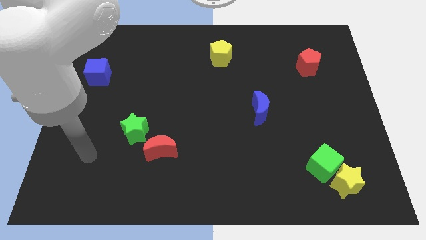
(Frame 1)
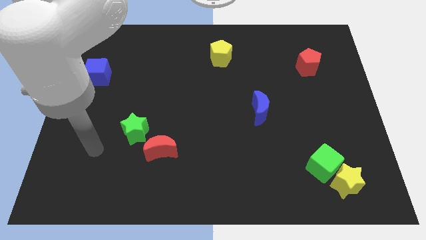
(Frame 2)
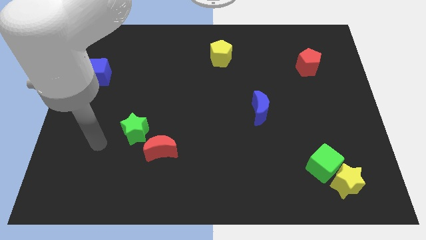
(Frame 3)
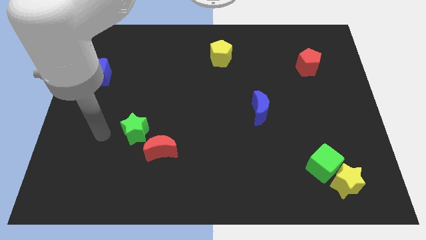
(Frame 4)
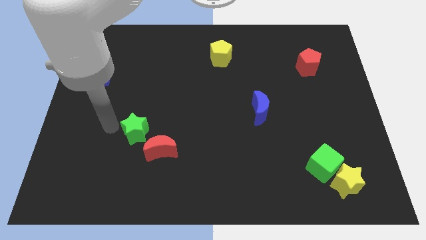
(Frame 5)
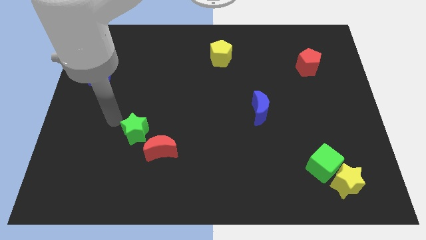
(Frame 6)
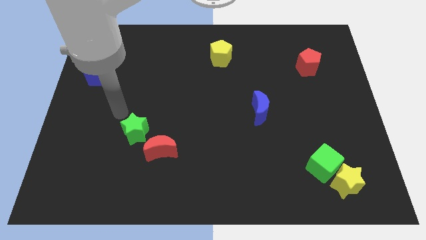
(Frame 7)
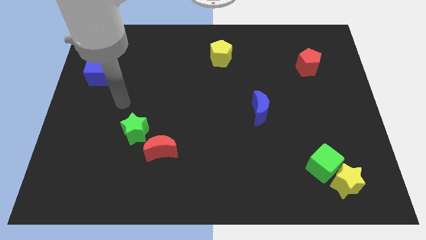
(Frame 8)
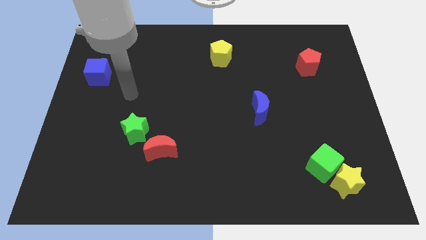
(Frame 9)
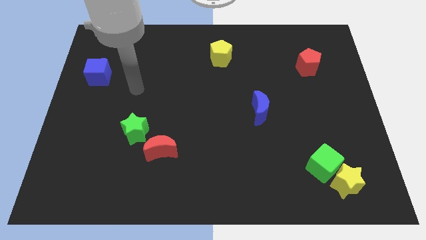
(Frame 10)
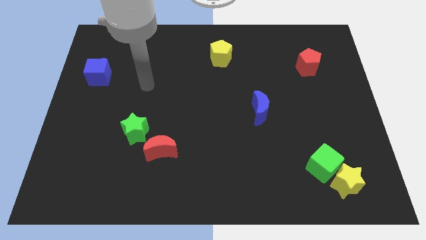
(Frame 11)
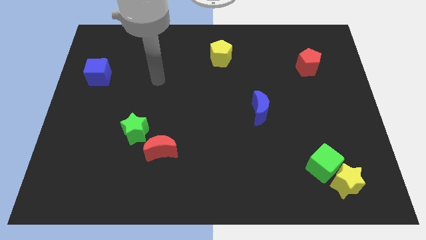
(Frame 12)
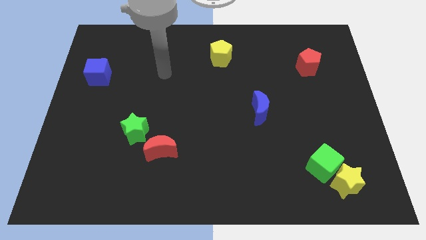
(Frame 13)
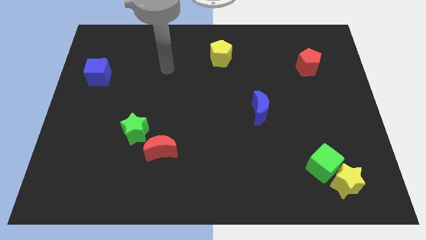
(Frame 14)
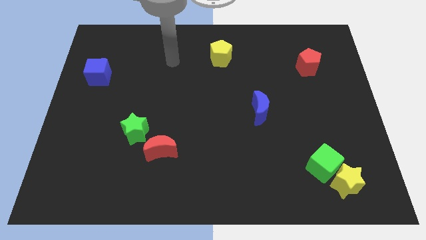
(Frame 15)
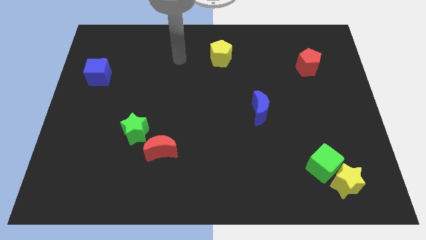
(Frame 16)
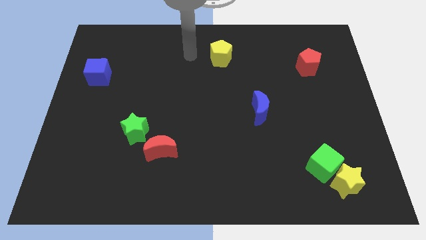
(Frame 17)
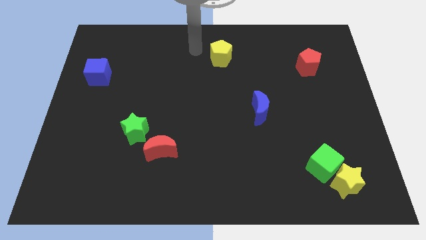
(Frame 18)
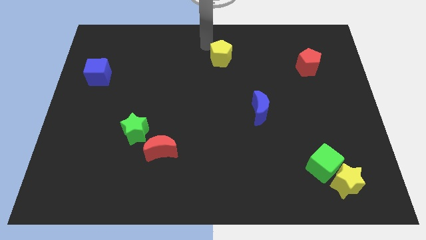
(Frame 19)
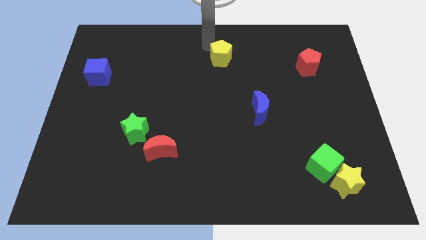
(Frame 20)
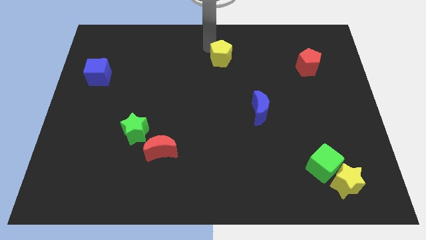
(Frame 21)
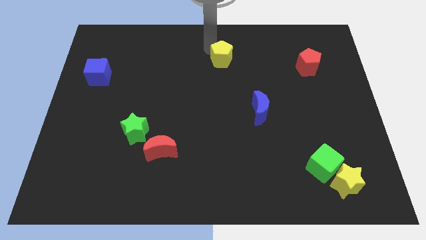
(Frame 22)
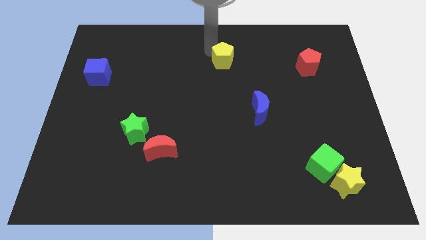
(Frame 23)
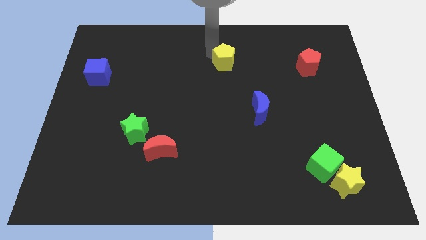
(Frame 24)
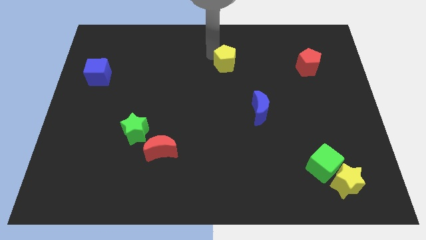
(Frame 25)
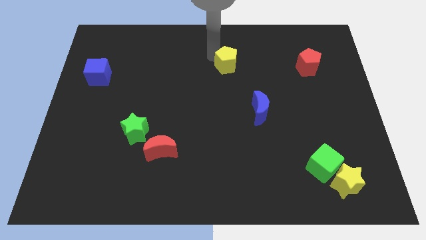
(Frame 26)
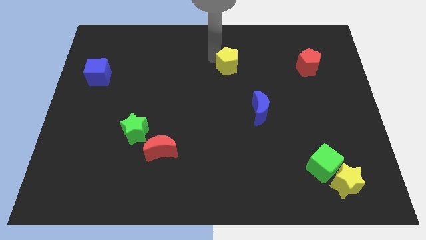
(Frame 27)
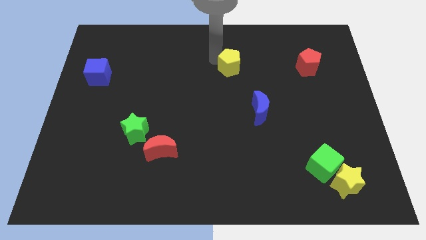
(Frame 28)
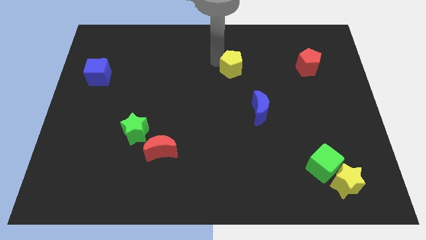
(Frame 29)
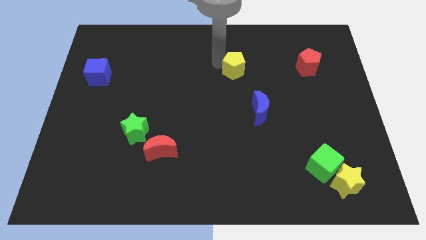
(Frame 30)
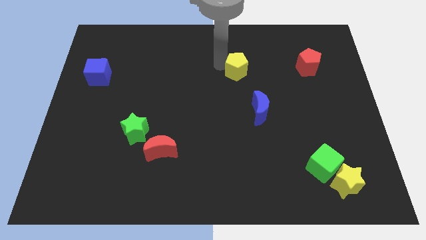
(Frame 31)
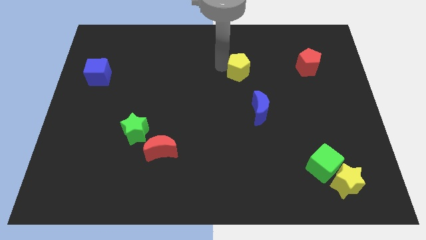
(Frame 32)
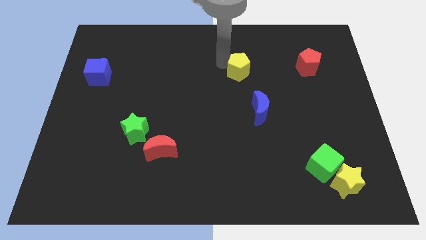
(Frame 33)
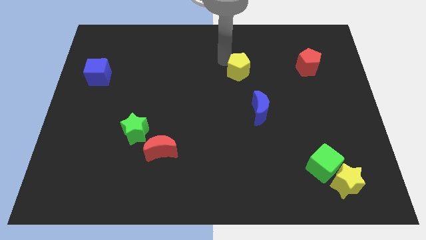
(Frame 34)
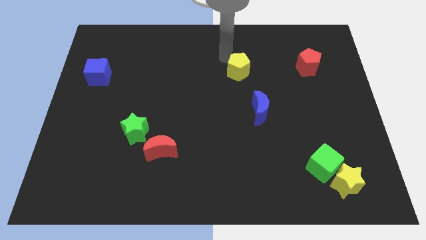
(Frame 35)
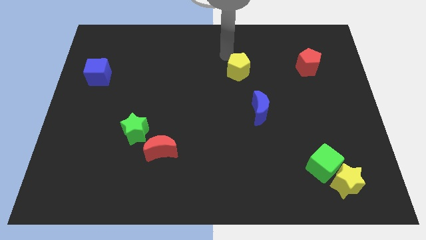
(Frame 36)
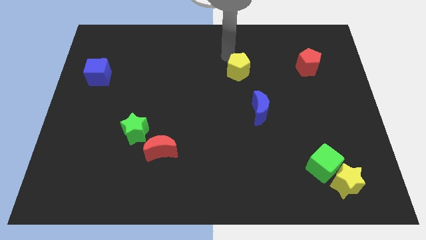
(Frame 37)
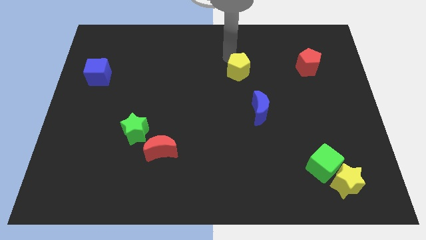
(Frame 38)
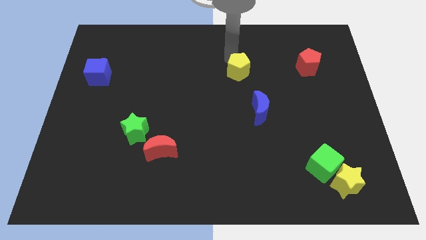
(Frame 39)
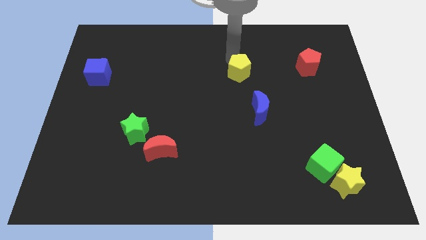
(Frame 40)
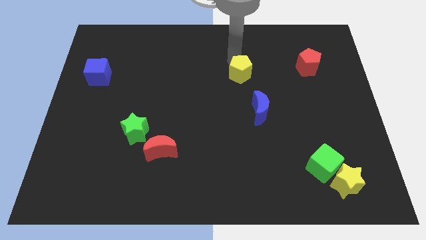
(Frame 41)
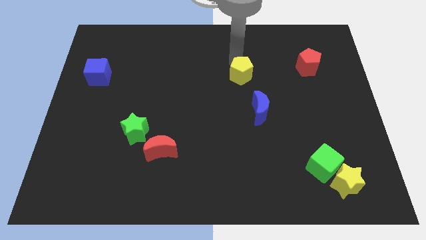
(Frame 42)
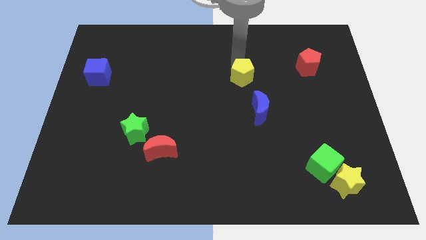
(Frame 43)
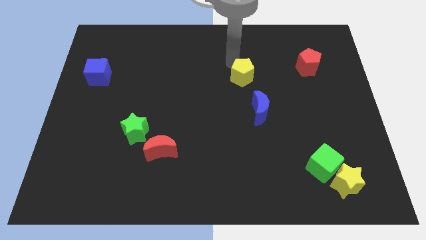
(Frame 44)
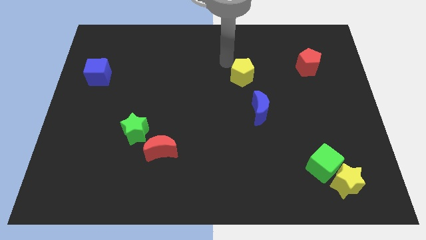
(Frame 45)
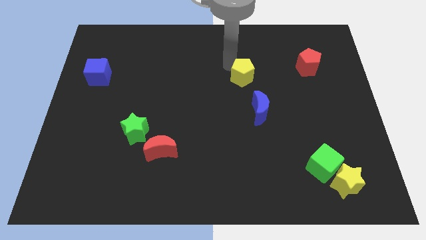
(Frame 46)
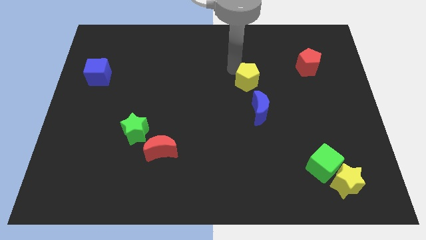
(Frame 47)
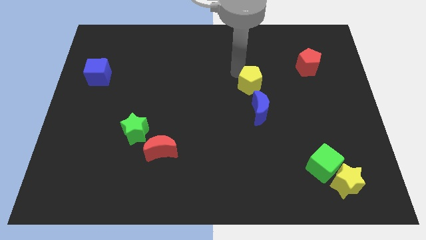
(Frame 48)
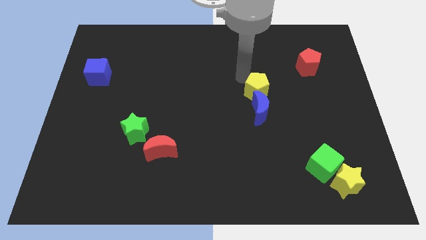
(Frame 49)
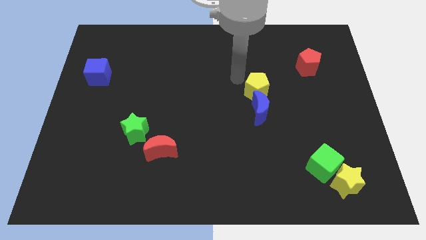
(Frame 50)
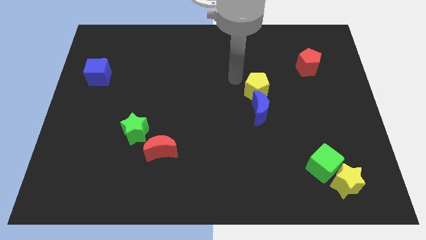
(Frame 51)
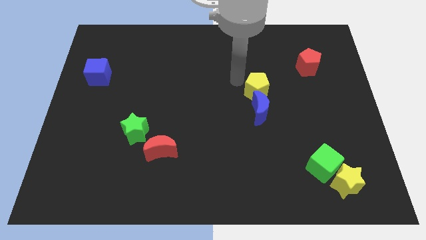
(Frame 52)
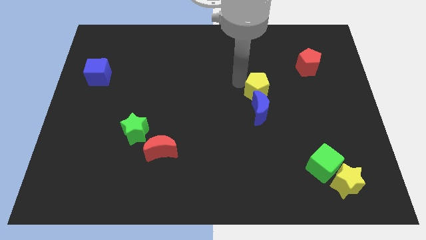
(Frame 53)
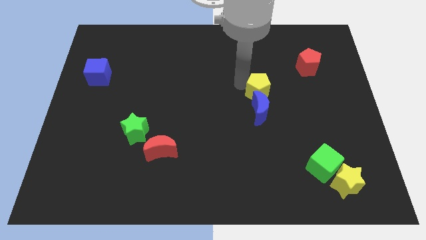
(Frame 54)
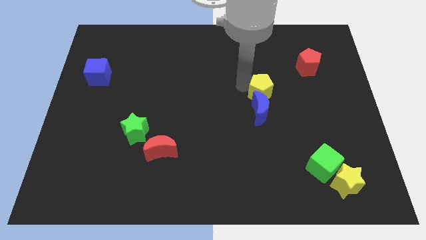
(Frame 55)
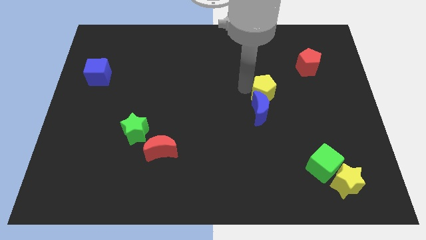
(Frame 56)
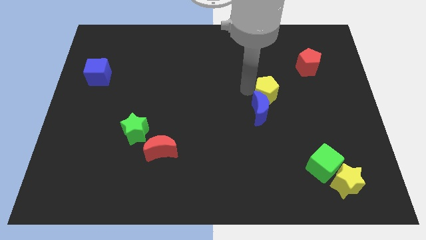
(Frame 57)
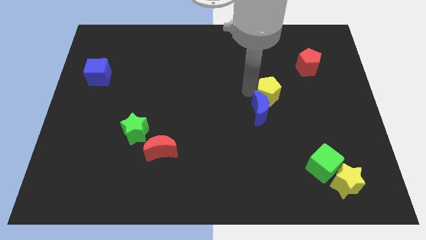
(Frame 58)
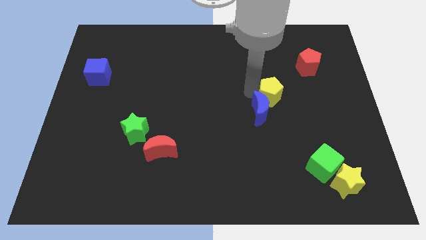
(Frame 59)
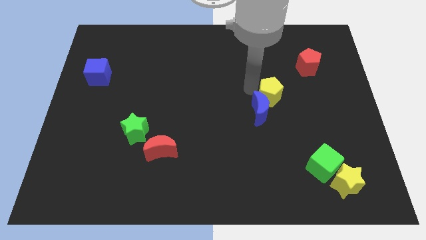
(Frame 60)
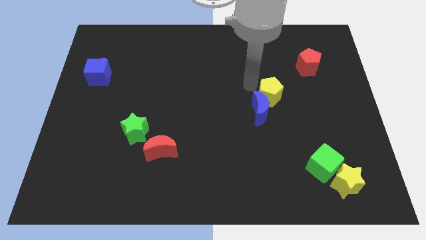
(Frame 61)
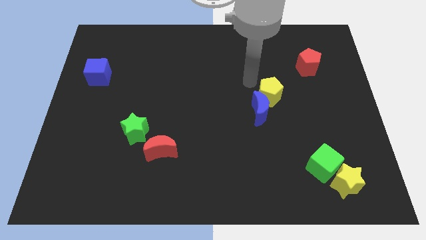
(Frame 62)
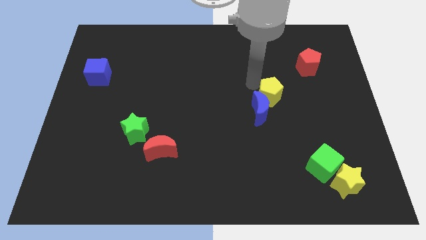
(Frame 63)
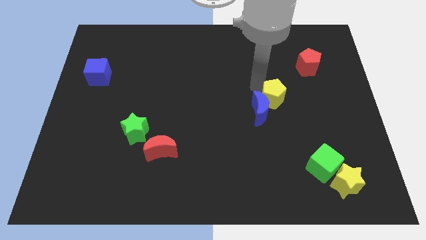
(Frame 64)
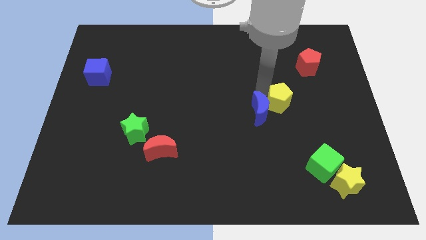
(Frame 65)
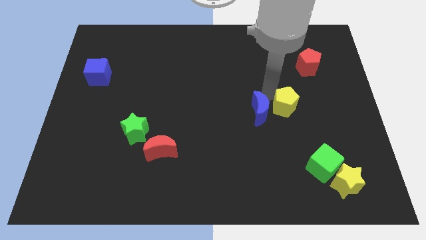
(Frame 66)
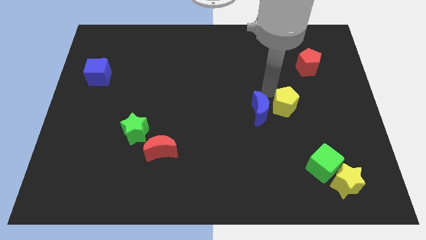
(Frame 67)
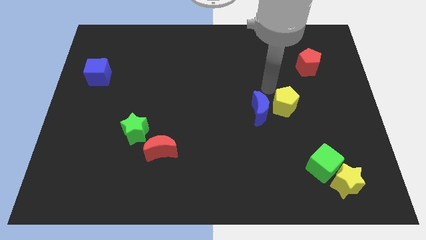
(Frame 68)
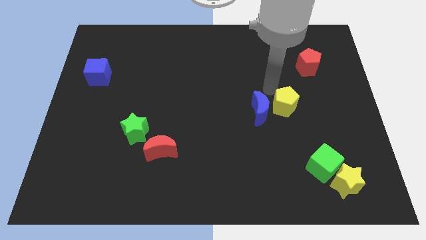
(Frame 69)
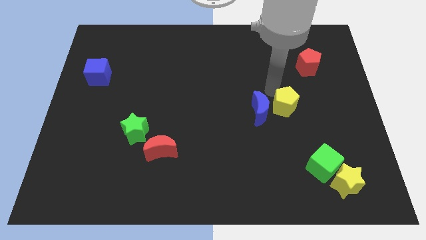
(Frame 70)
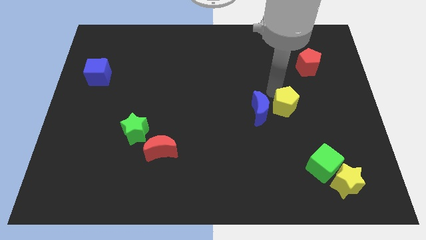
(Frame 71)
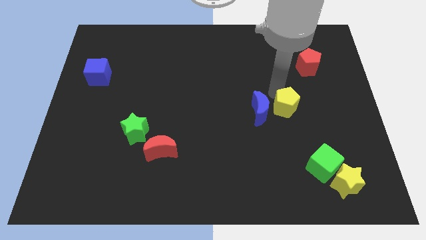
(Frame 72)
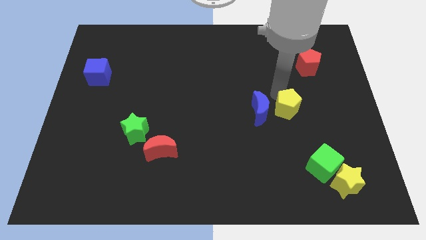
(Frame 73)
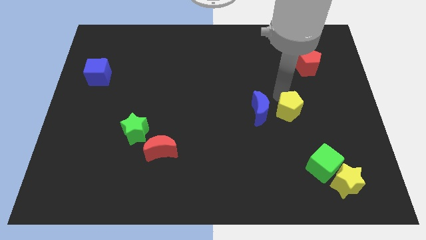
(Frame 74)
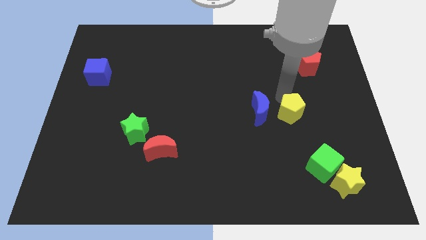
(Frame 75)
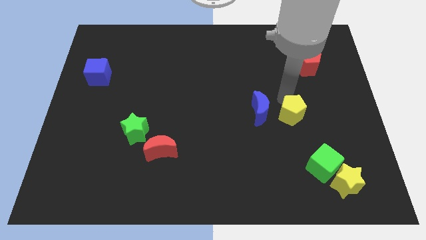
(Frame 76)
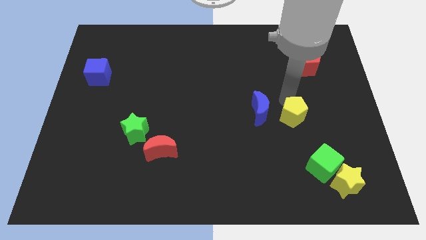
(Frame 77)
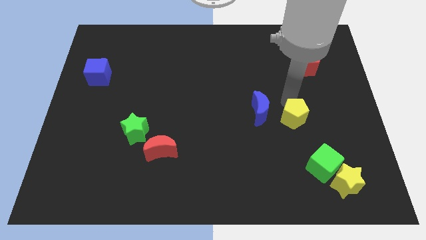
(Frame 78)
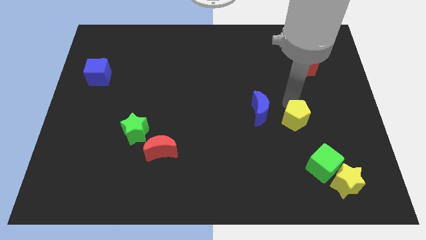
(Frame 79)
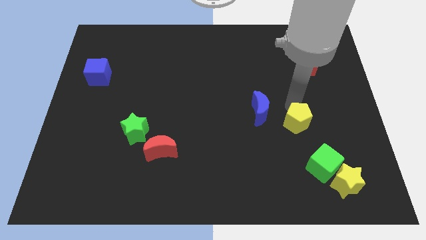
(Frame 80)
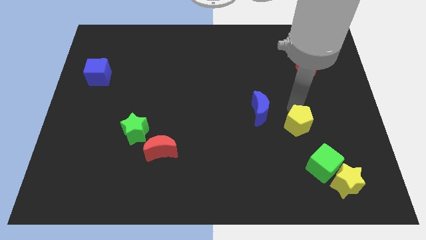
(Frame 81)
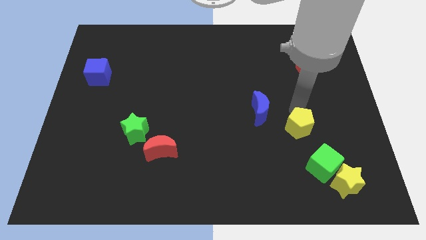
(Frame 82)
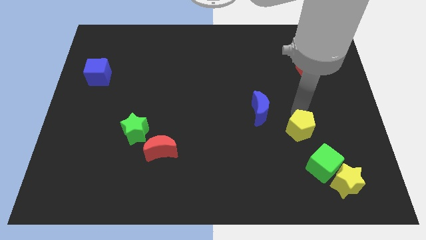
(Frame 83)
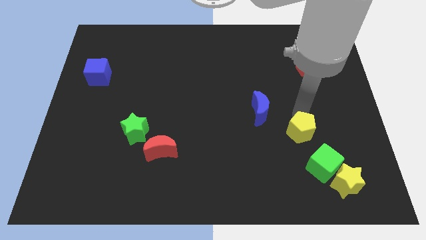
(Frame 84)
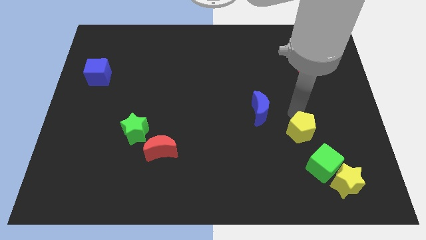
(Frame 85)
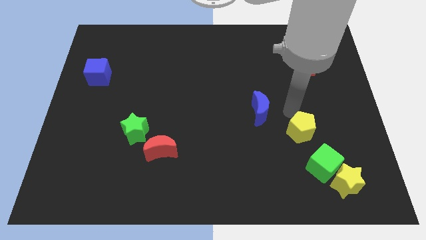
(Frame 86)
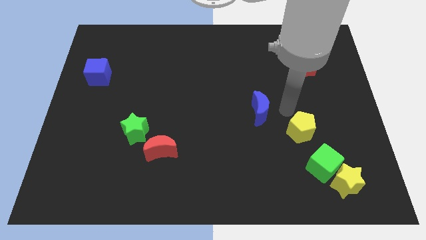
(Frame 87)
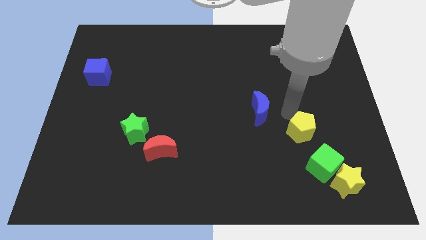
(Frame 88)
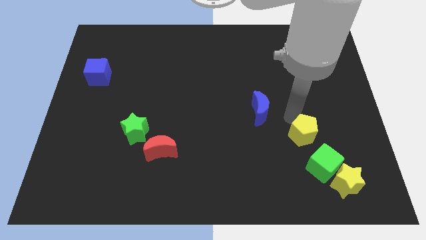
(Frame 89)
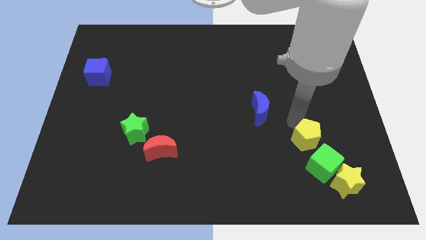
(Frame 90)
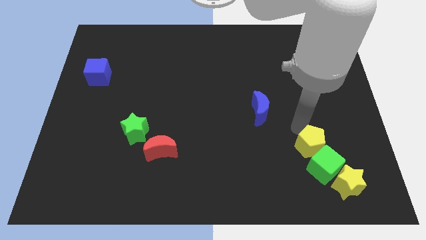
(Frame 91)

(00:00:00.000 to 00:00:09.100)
put the yellow pentagon towards the green cube
